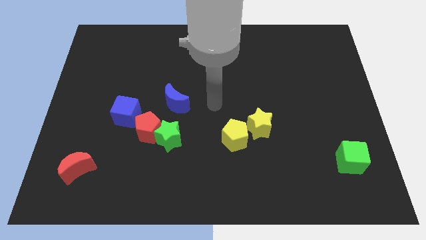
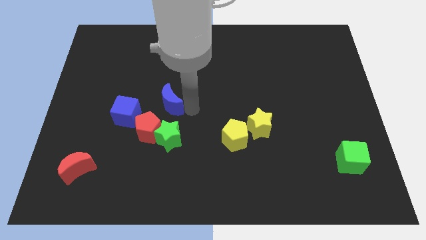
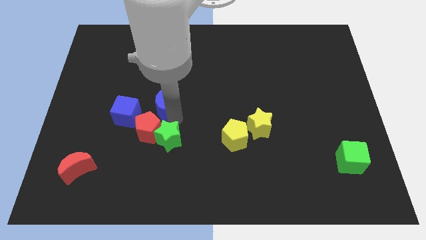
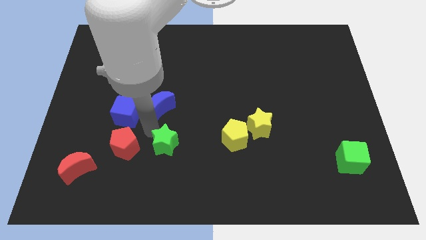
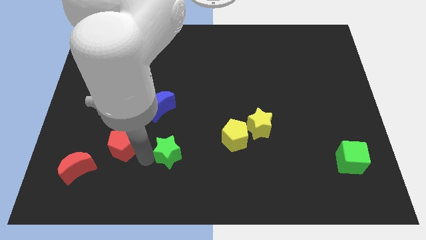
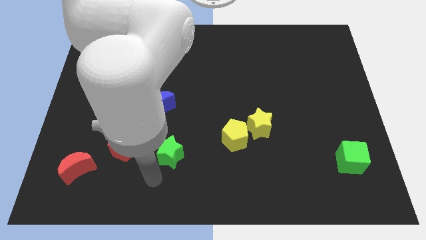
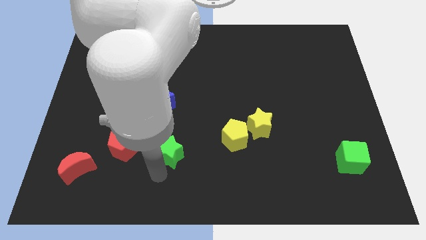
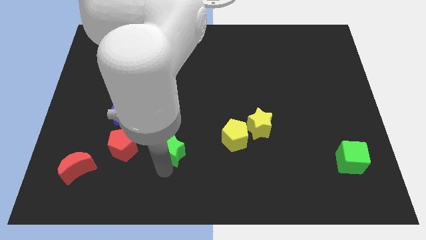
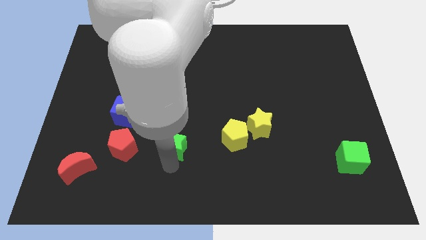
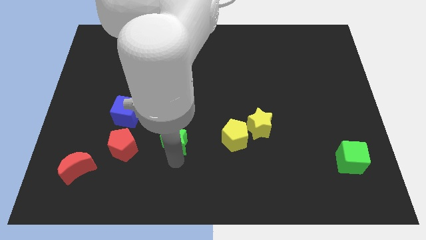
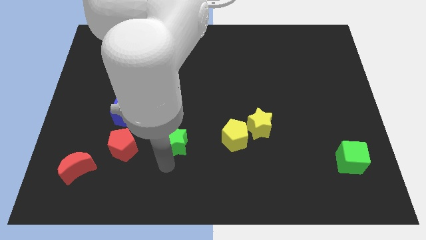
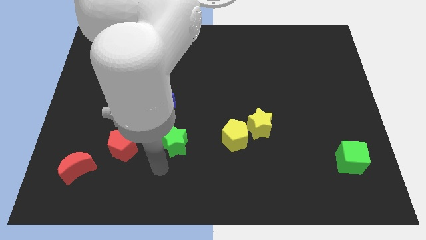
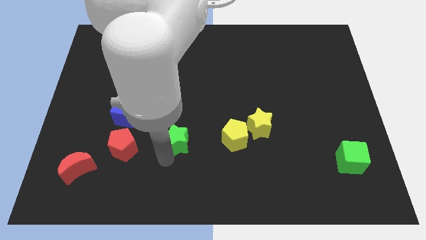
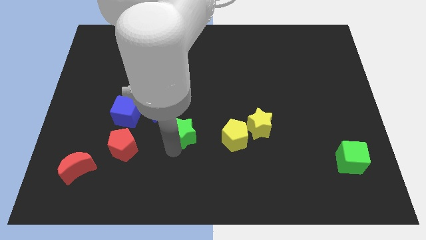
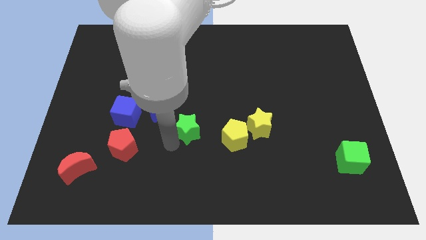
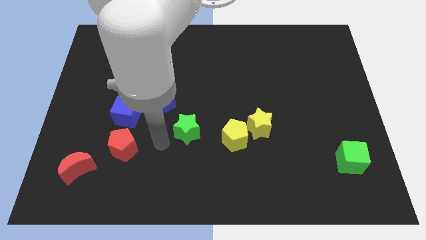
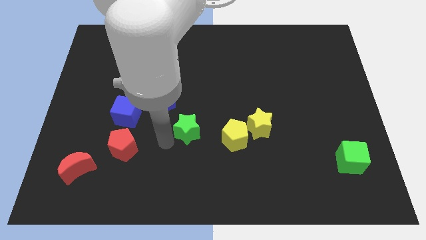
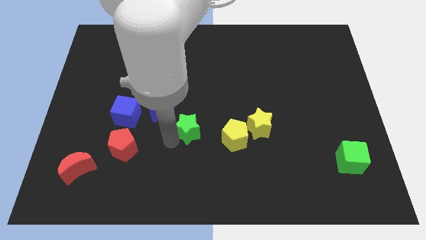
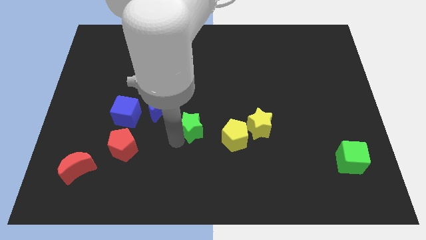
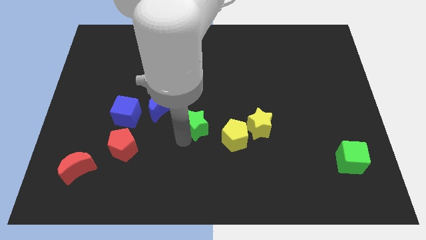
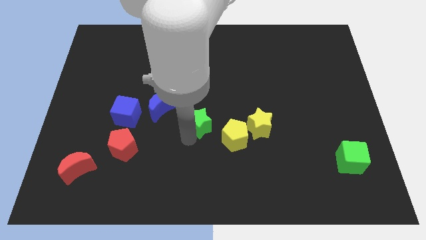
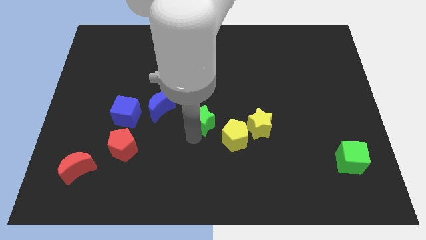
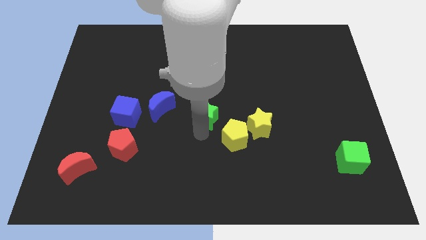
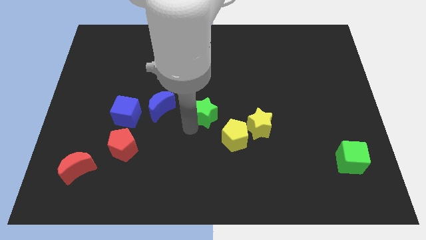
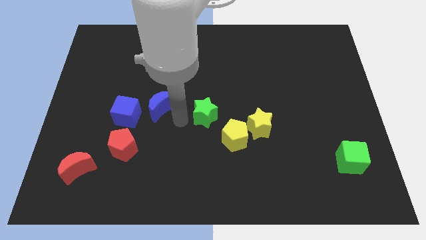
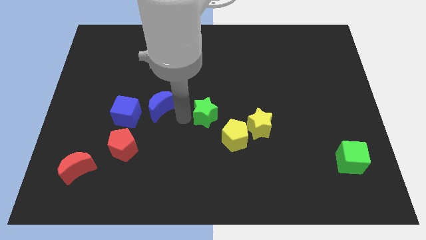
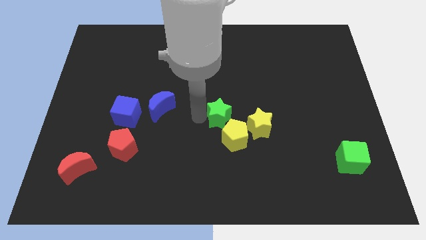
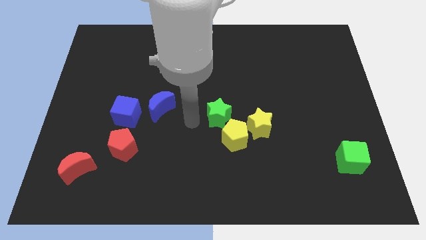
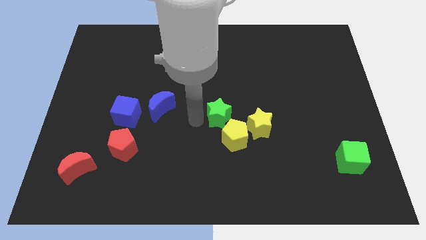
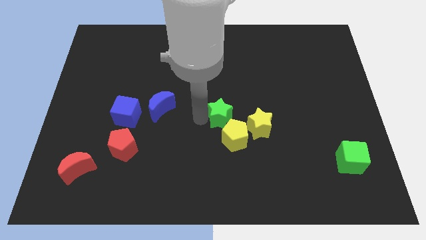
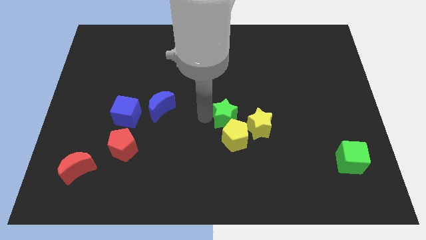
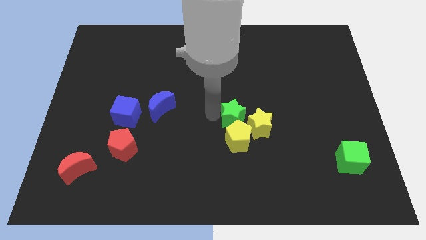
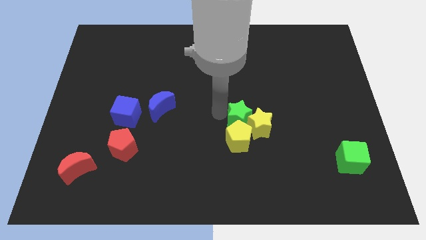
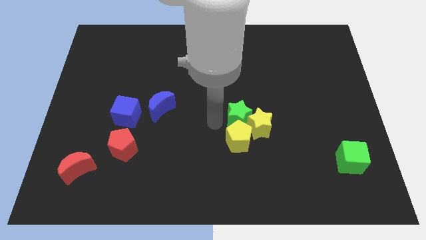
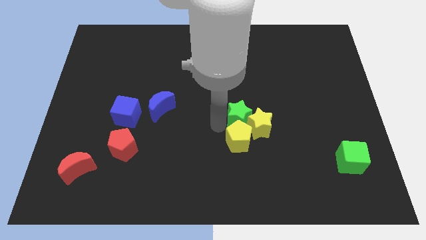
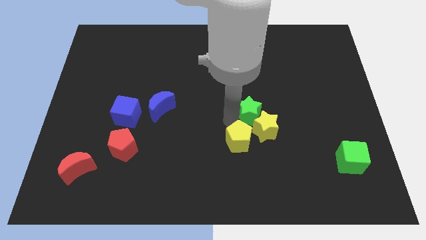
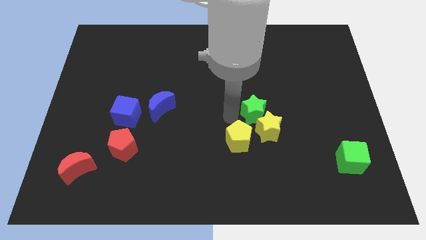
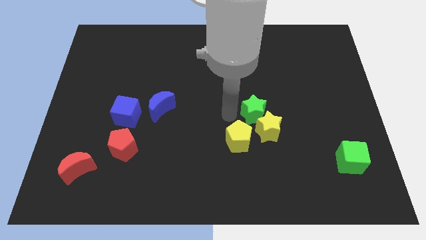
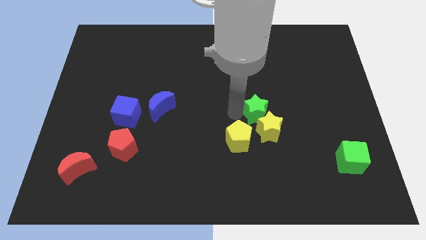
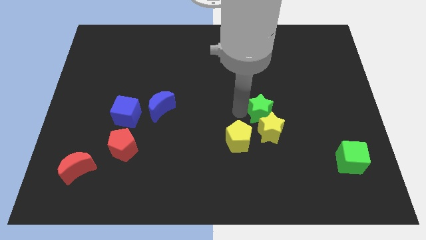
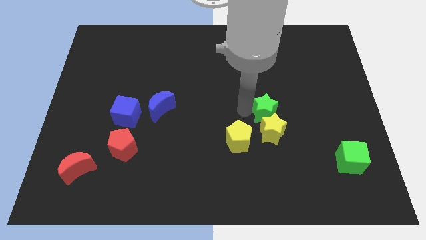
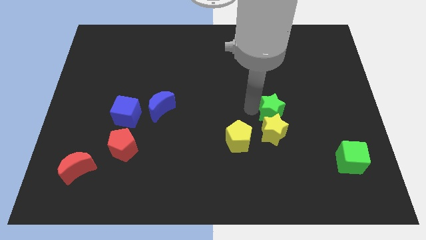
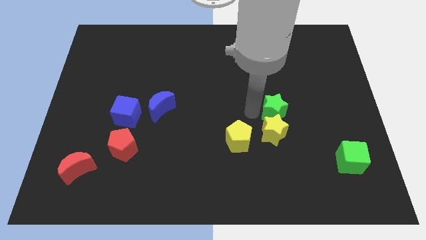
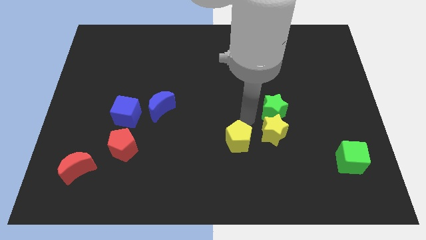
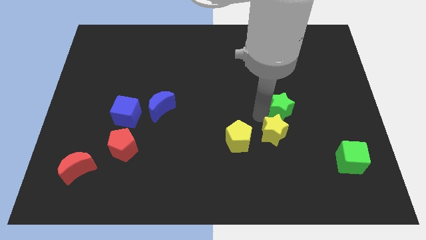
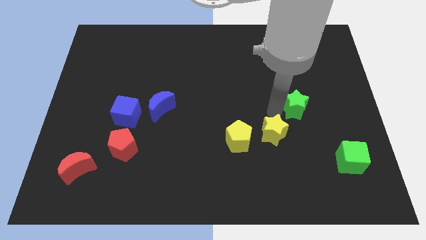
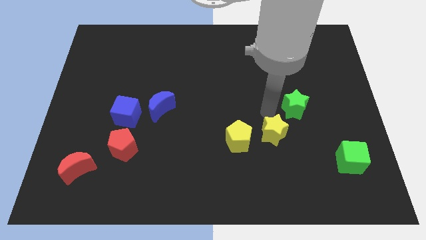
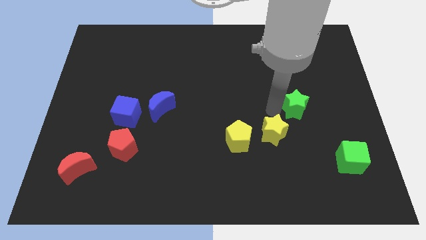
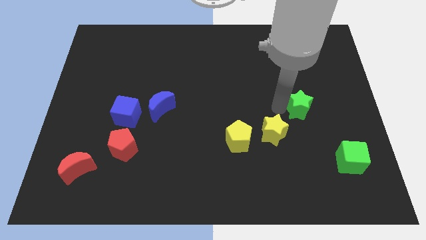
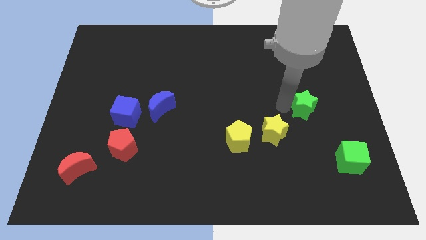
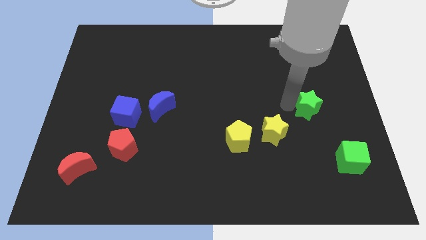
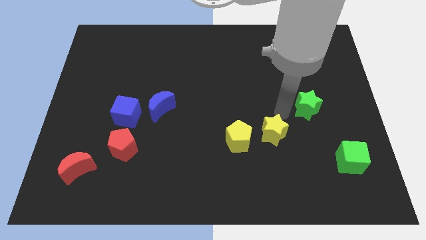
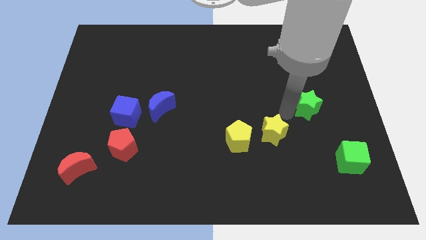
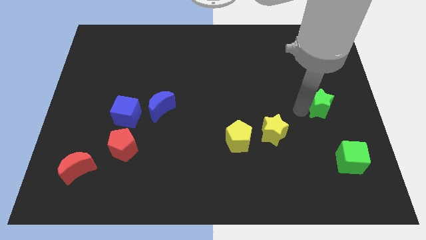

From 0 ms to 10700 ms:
slide the green star to the right side of the board

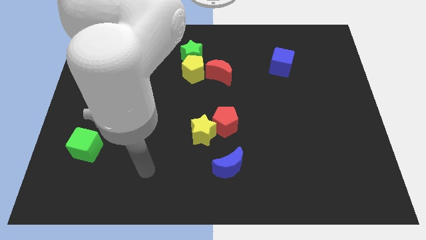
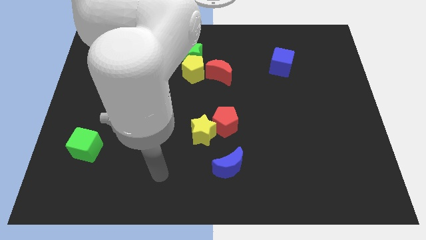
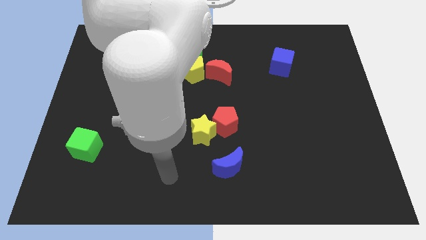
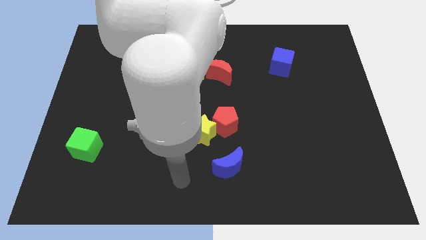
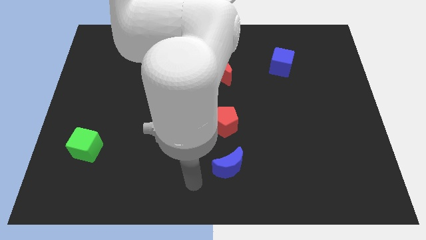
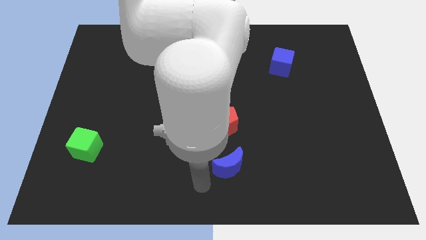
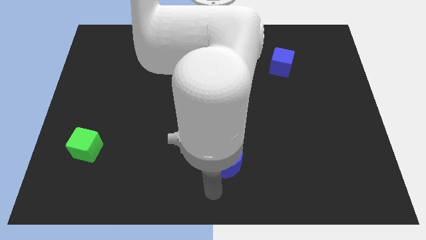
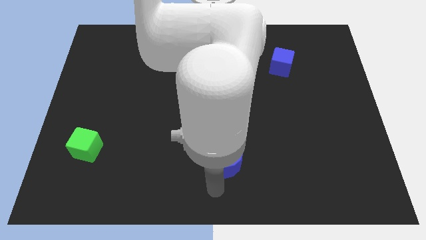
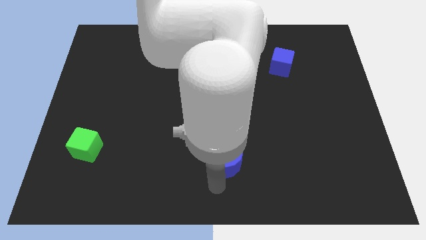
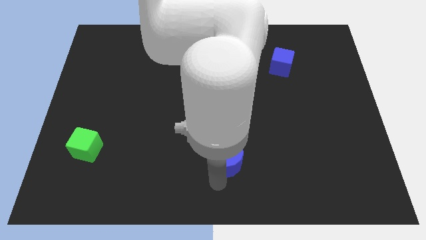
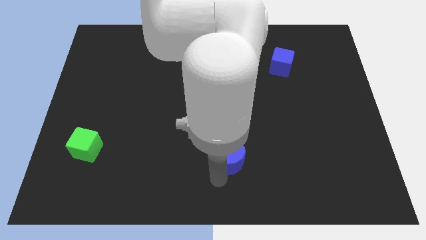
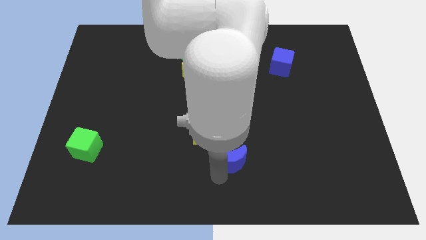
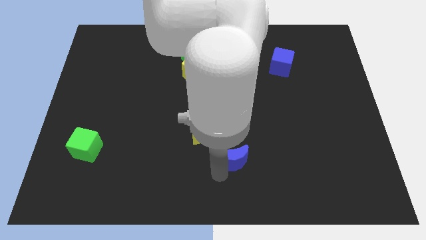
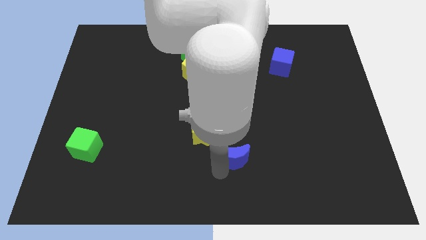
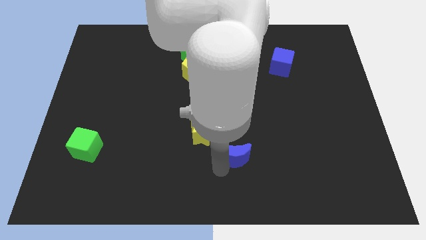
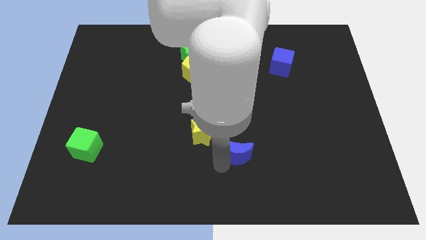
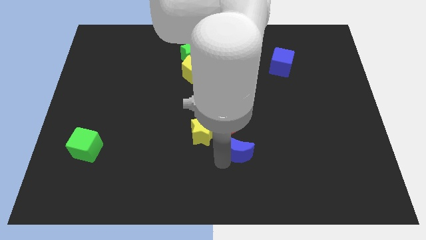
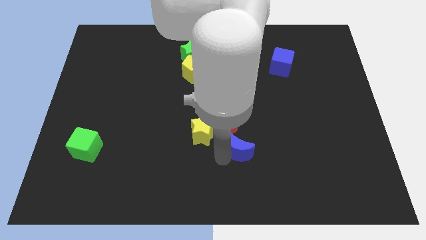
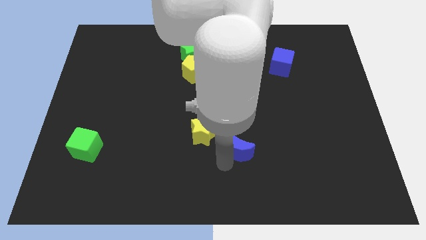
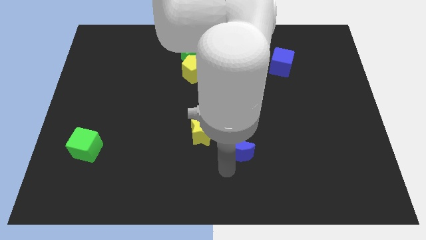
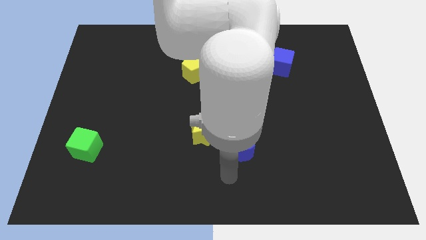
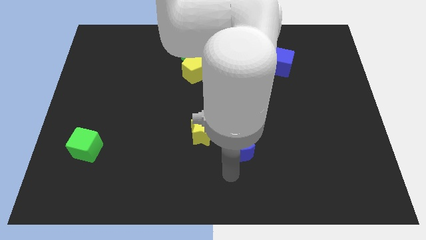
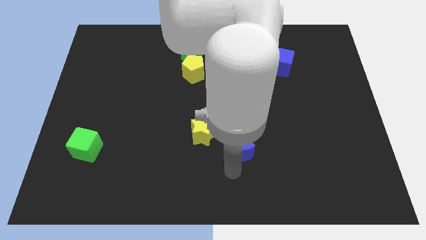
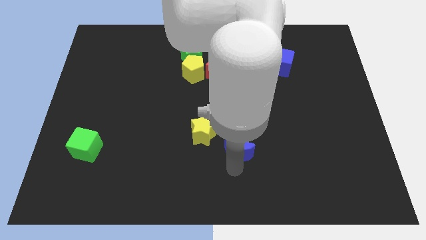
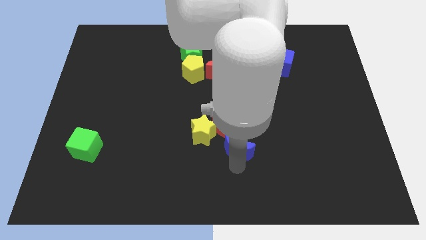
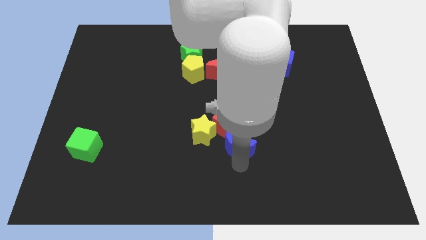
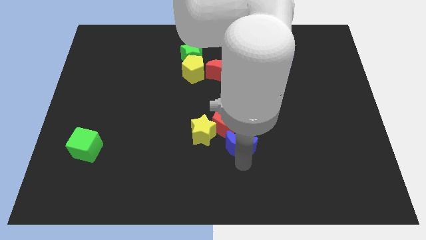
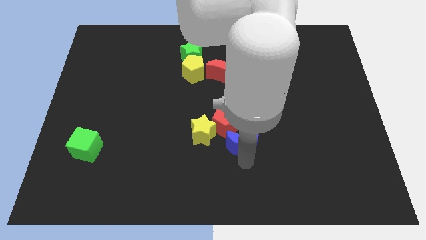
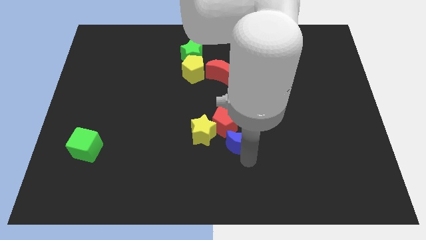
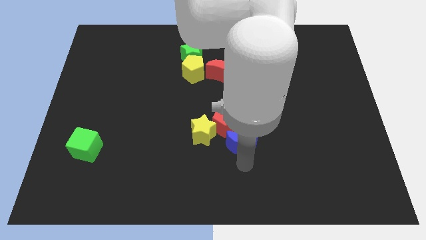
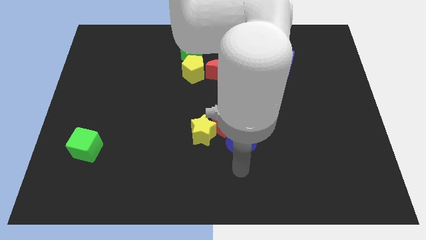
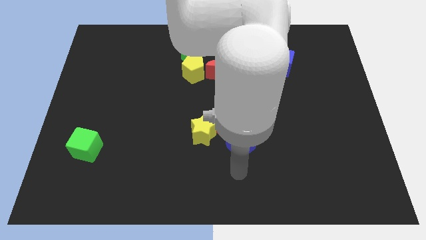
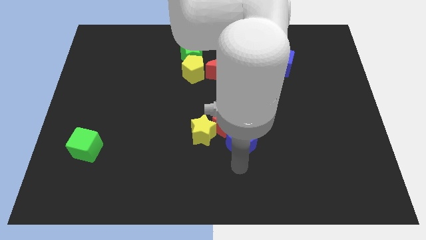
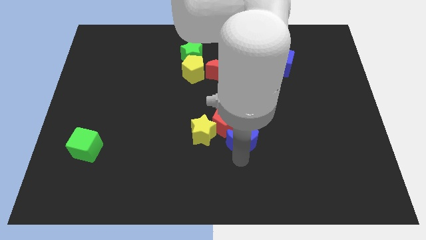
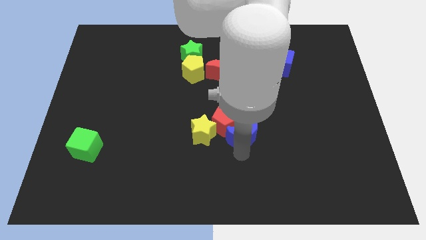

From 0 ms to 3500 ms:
move the blue moon to the center of the board
